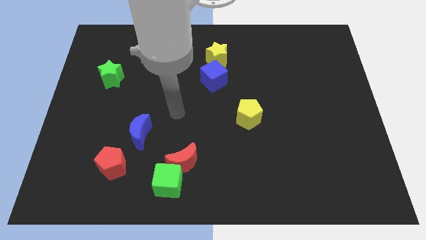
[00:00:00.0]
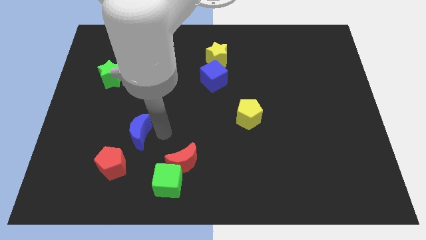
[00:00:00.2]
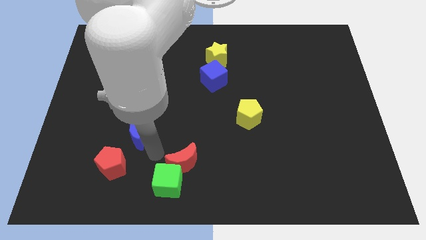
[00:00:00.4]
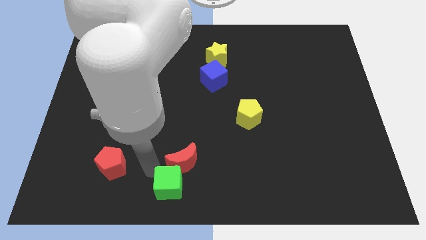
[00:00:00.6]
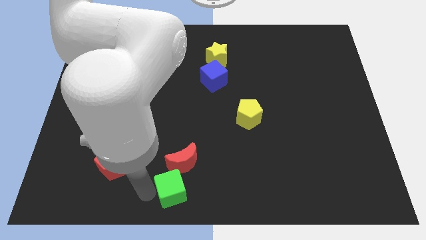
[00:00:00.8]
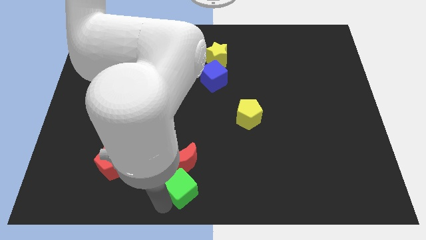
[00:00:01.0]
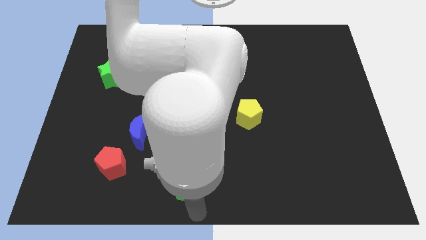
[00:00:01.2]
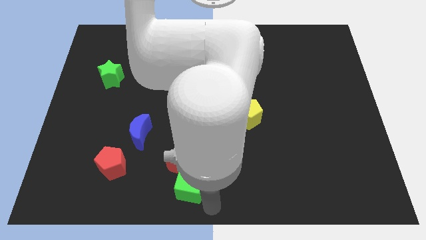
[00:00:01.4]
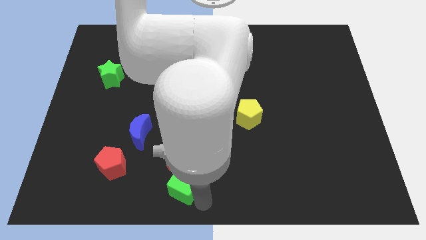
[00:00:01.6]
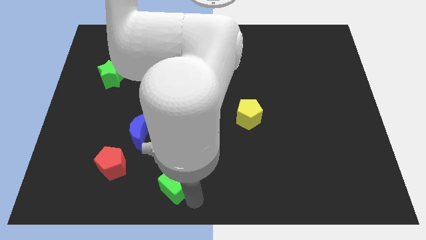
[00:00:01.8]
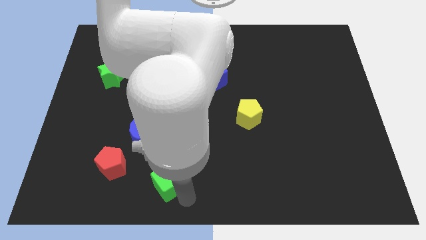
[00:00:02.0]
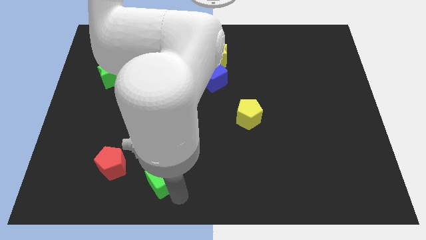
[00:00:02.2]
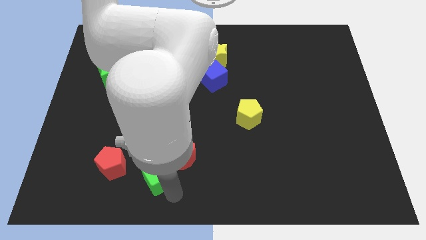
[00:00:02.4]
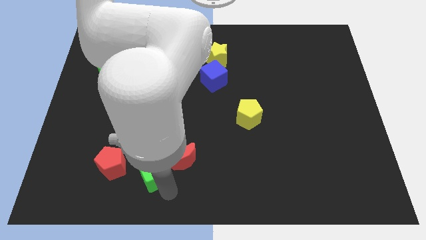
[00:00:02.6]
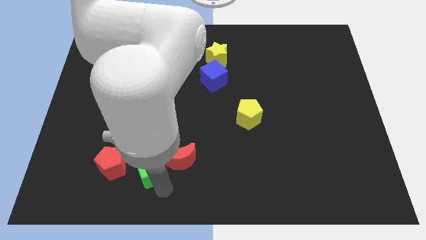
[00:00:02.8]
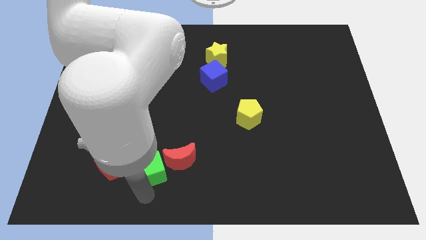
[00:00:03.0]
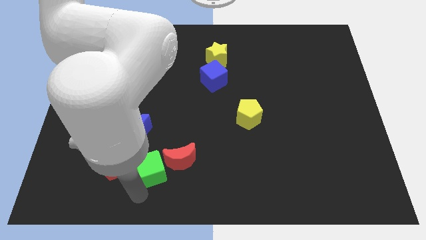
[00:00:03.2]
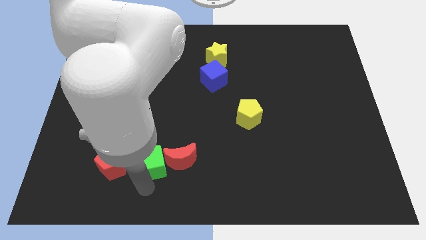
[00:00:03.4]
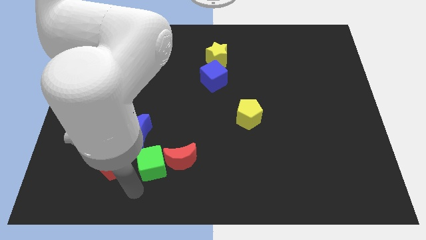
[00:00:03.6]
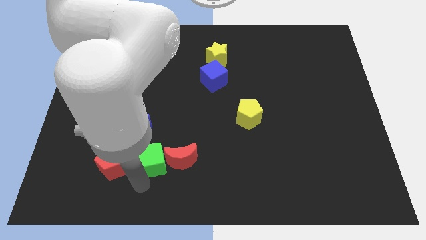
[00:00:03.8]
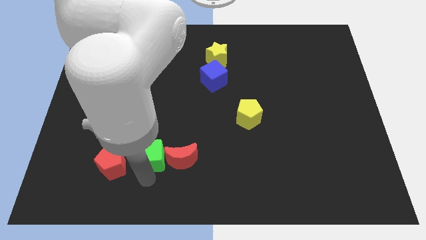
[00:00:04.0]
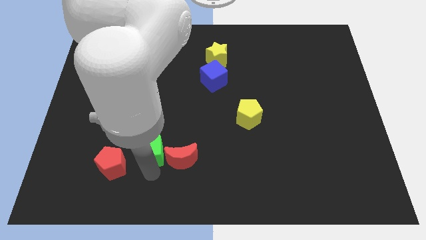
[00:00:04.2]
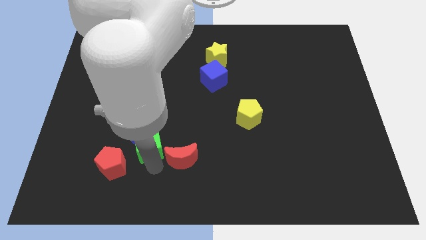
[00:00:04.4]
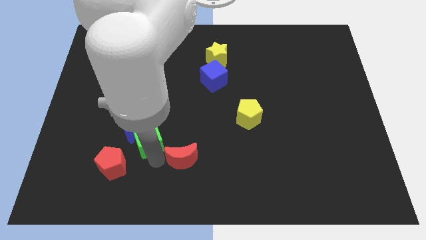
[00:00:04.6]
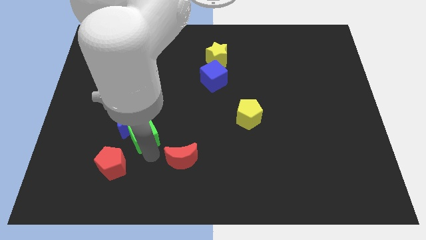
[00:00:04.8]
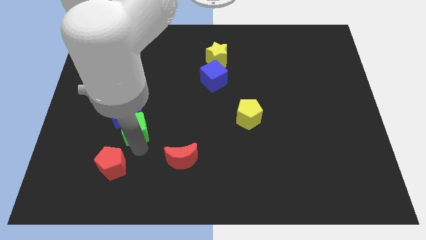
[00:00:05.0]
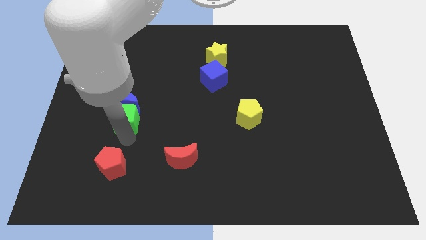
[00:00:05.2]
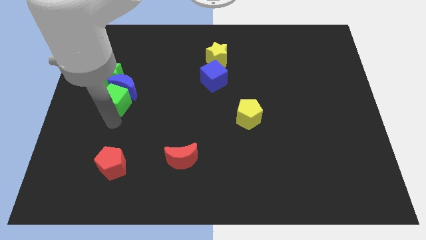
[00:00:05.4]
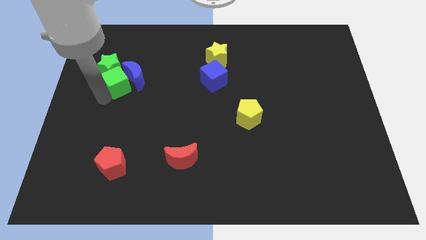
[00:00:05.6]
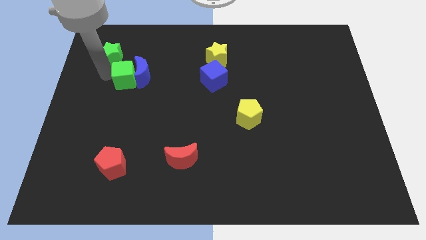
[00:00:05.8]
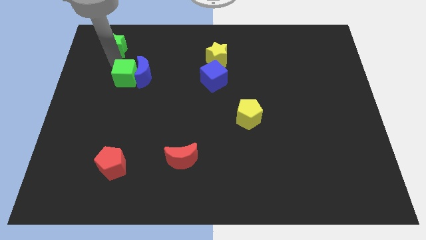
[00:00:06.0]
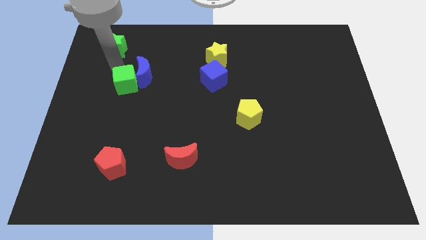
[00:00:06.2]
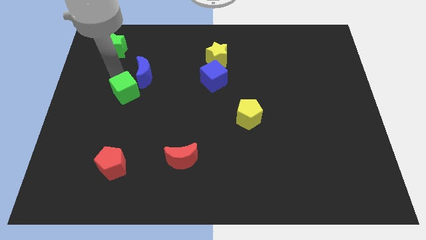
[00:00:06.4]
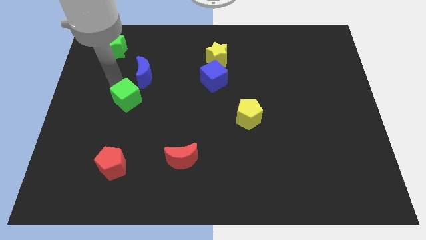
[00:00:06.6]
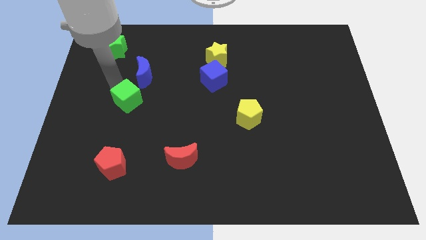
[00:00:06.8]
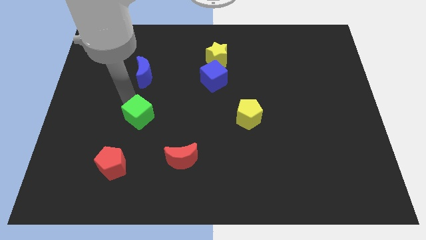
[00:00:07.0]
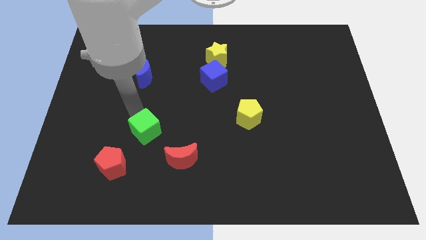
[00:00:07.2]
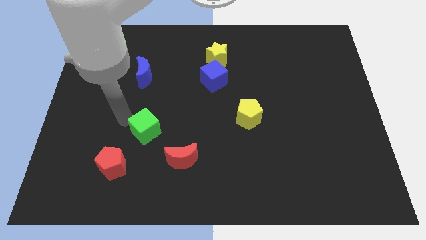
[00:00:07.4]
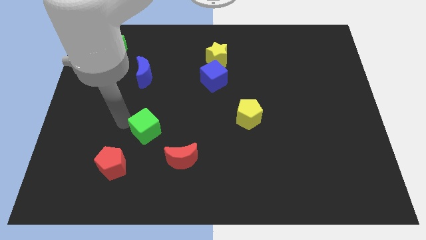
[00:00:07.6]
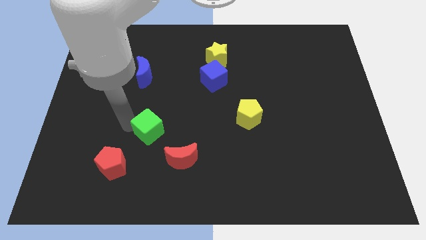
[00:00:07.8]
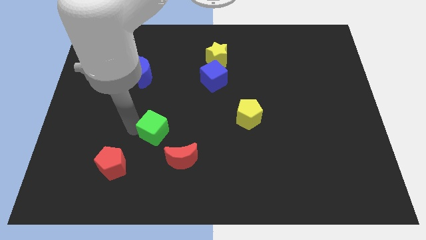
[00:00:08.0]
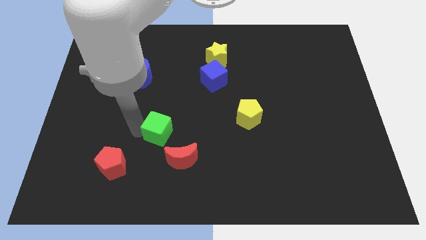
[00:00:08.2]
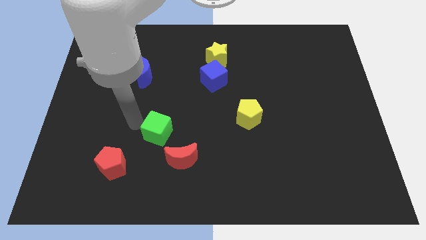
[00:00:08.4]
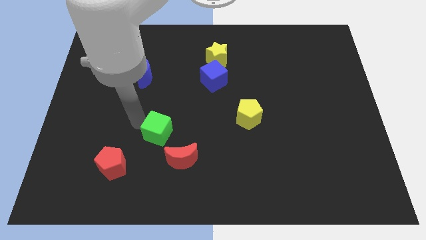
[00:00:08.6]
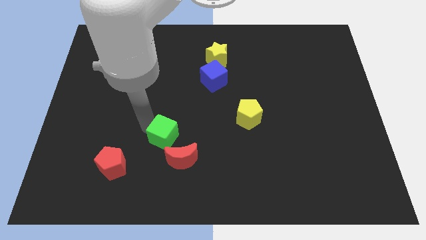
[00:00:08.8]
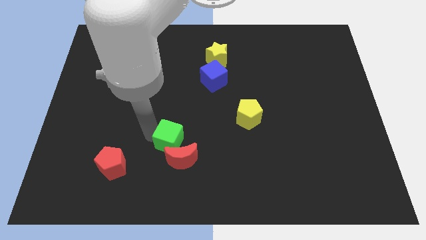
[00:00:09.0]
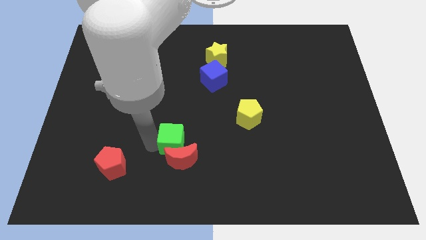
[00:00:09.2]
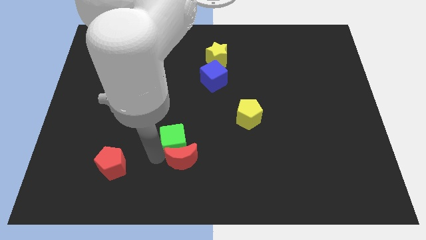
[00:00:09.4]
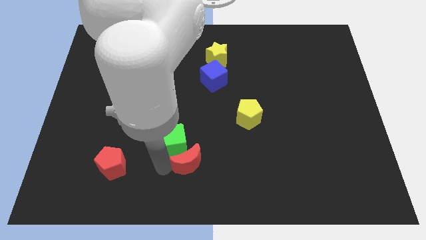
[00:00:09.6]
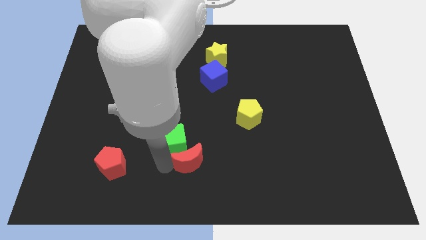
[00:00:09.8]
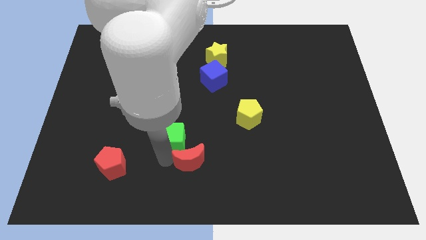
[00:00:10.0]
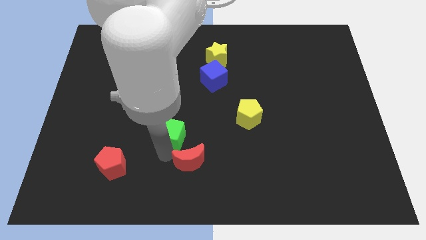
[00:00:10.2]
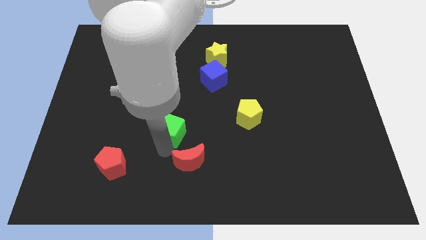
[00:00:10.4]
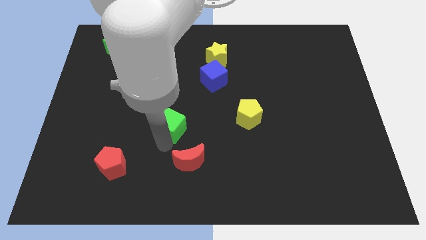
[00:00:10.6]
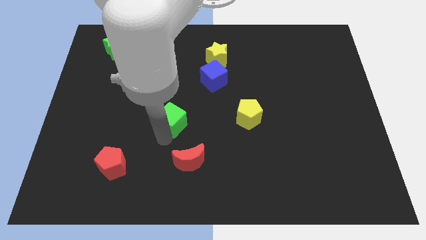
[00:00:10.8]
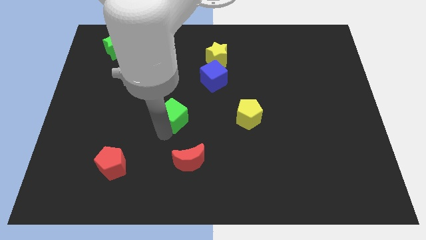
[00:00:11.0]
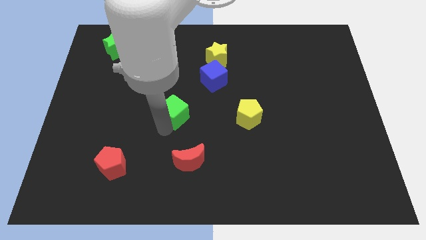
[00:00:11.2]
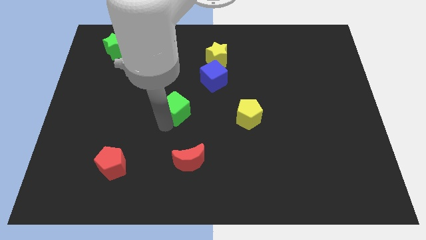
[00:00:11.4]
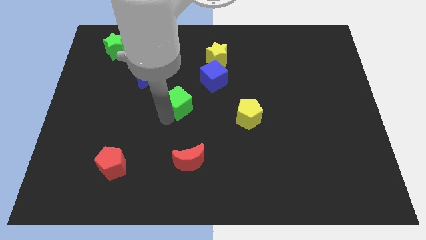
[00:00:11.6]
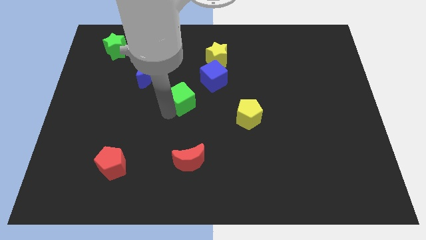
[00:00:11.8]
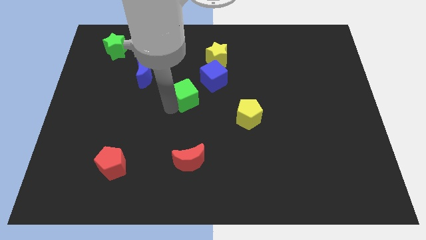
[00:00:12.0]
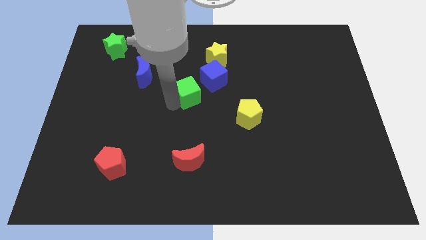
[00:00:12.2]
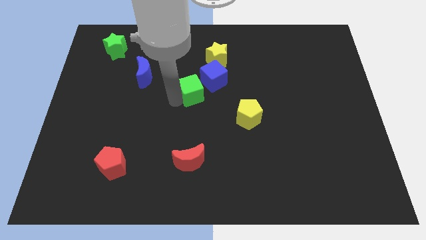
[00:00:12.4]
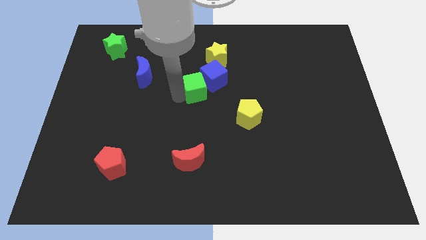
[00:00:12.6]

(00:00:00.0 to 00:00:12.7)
push the green cube close to the blue cube
